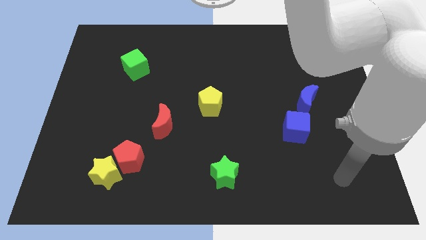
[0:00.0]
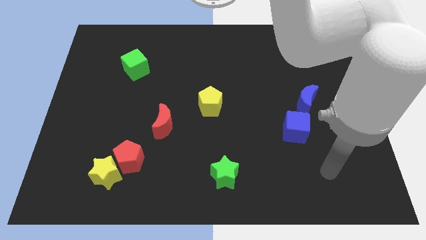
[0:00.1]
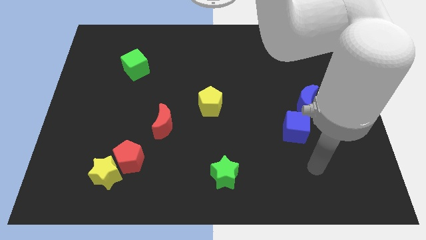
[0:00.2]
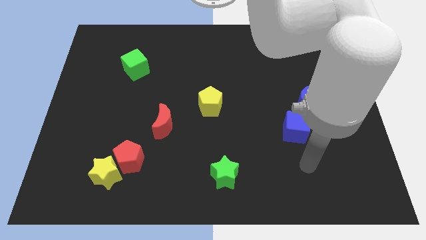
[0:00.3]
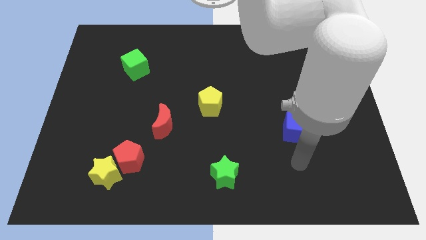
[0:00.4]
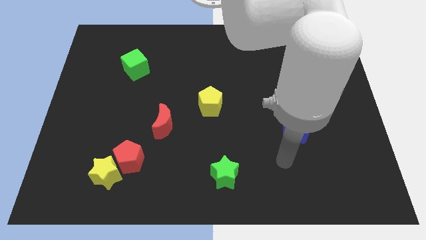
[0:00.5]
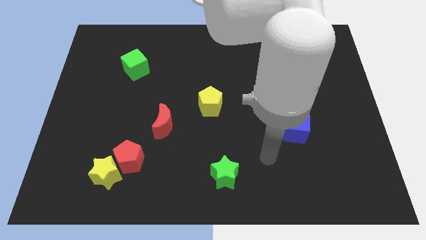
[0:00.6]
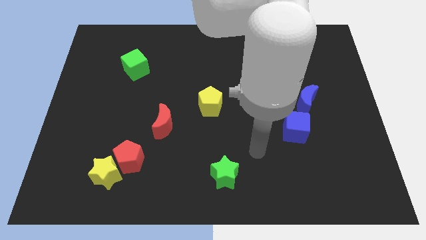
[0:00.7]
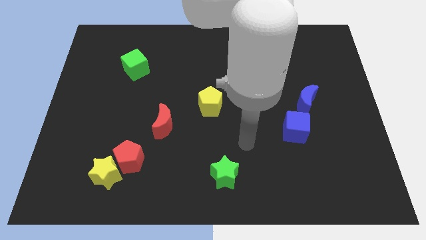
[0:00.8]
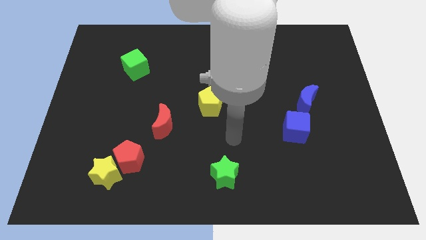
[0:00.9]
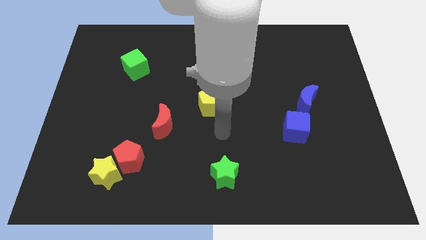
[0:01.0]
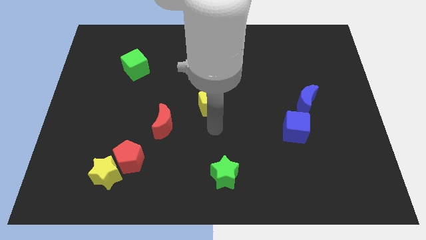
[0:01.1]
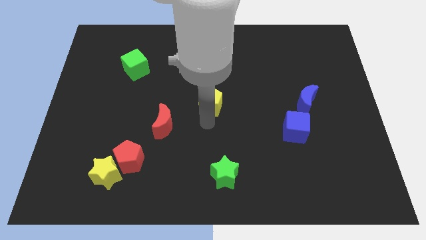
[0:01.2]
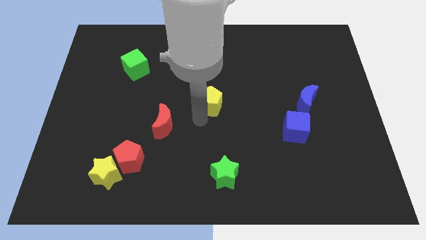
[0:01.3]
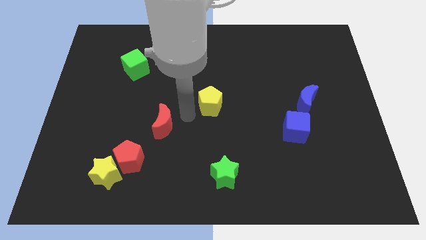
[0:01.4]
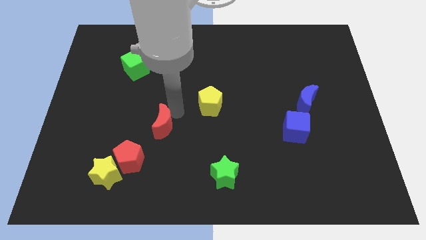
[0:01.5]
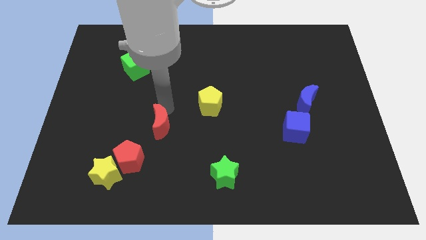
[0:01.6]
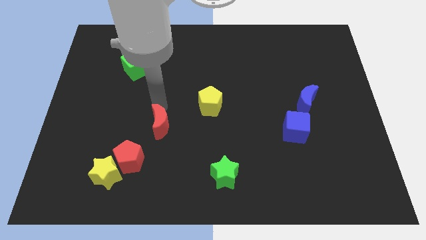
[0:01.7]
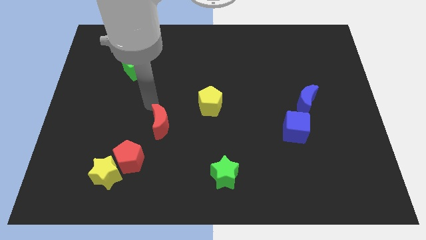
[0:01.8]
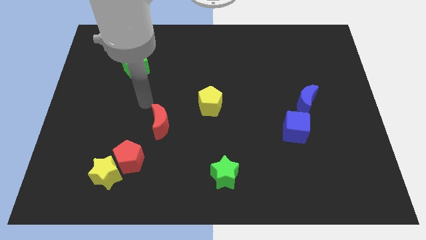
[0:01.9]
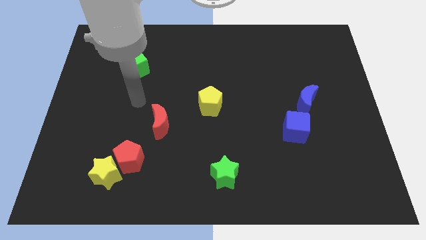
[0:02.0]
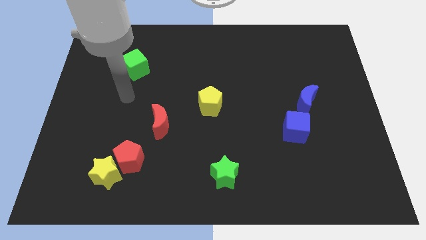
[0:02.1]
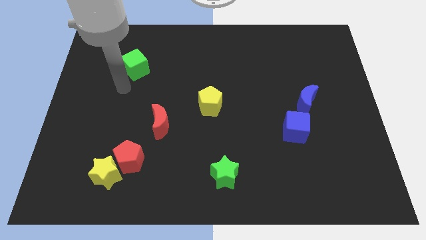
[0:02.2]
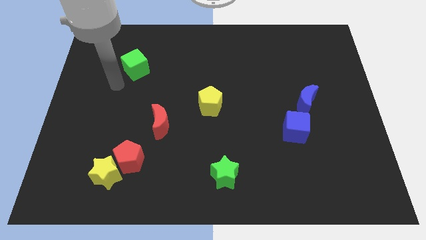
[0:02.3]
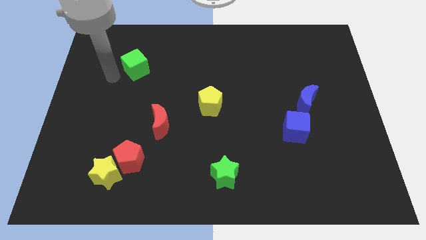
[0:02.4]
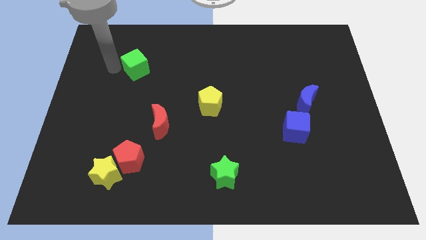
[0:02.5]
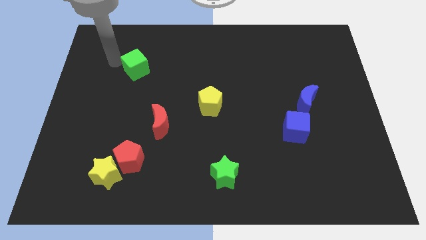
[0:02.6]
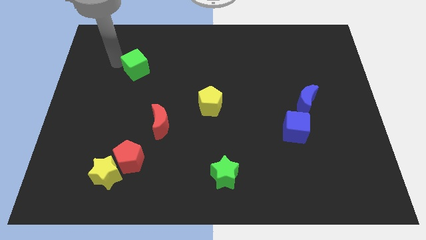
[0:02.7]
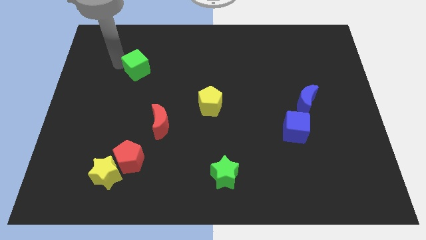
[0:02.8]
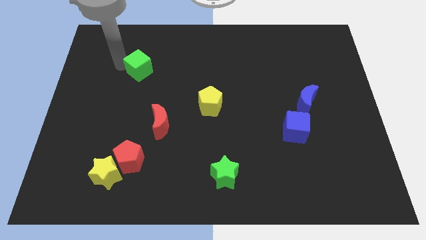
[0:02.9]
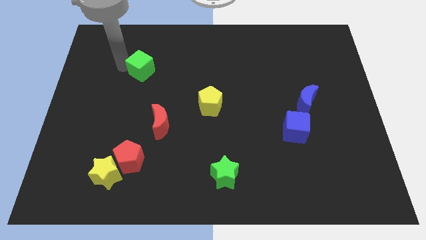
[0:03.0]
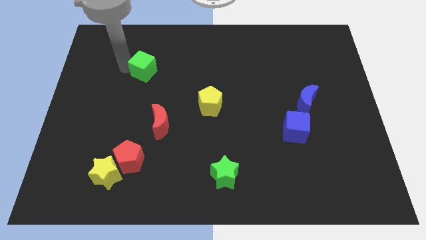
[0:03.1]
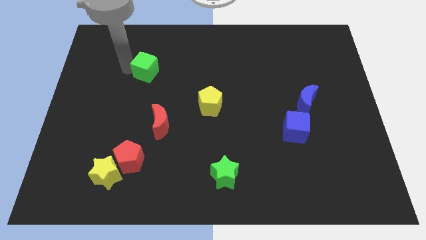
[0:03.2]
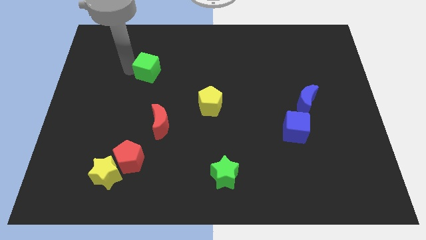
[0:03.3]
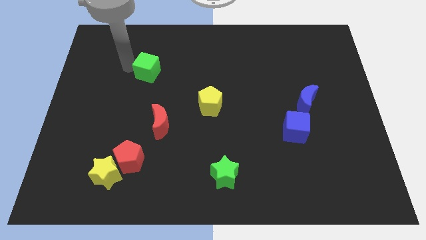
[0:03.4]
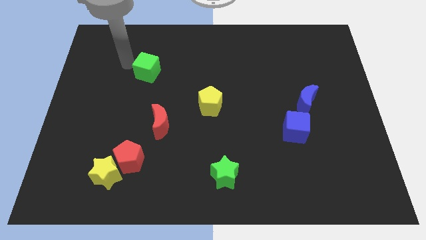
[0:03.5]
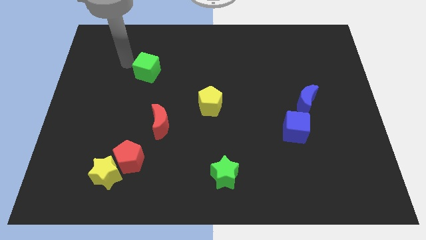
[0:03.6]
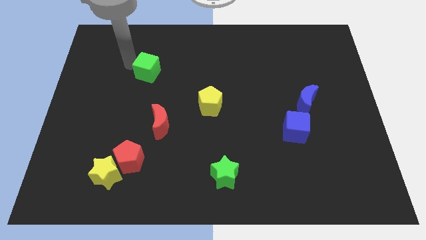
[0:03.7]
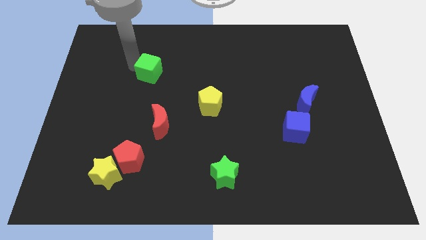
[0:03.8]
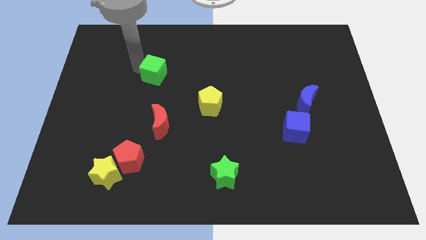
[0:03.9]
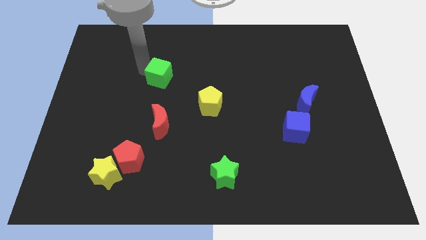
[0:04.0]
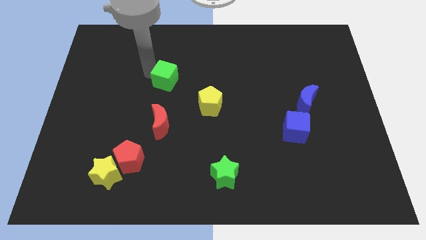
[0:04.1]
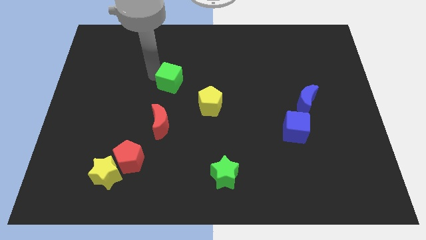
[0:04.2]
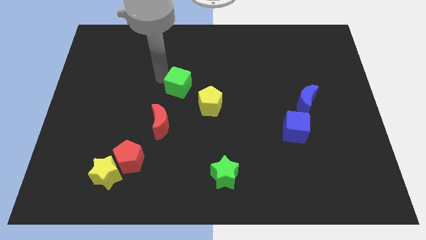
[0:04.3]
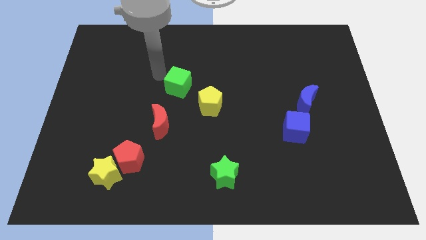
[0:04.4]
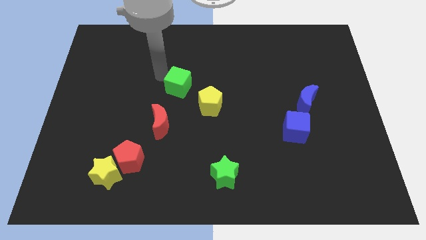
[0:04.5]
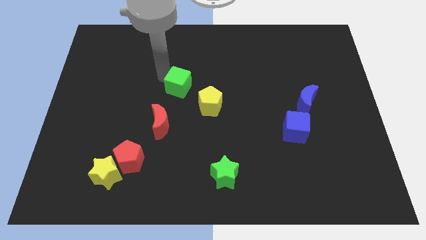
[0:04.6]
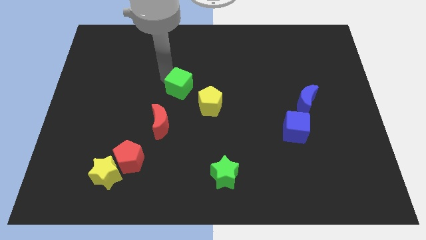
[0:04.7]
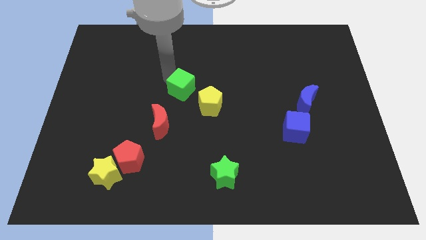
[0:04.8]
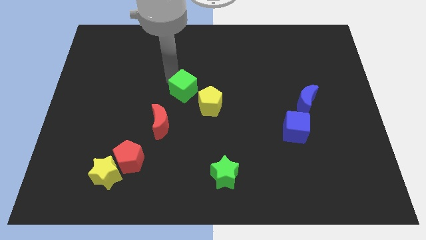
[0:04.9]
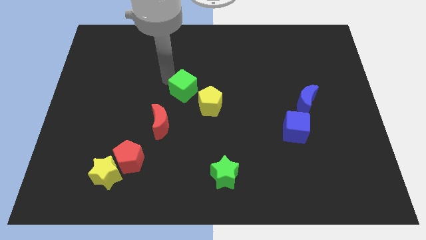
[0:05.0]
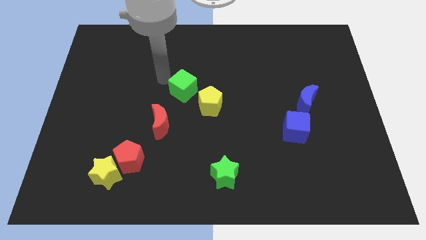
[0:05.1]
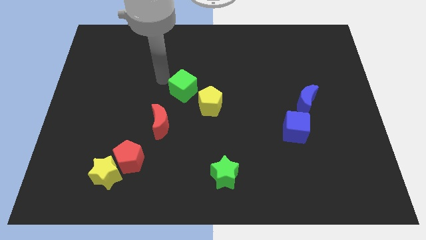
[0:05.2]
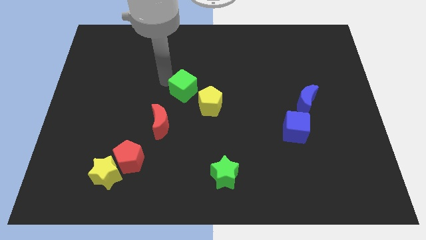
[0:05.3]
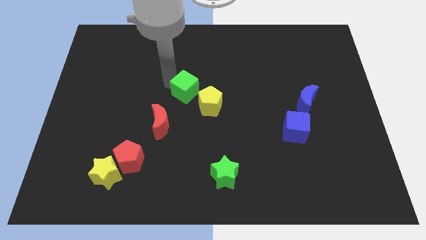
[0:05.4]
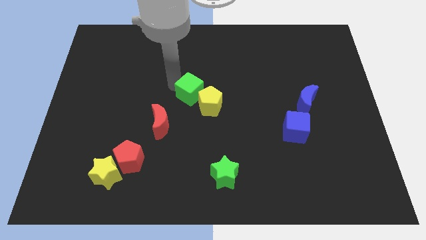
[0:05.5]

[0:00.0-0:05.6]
put the green cube to the yellow pentagon

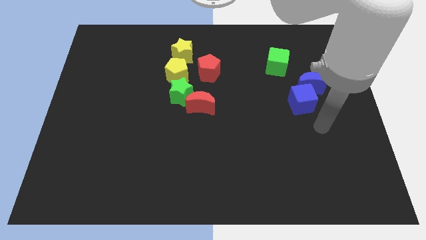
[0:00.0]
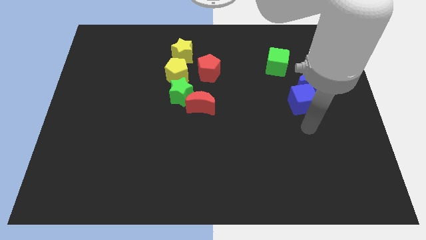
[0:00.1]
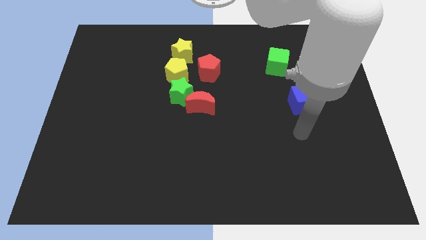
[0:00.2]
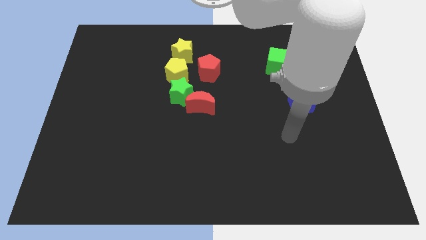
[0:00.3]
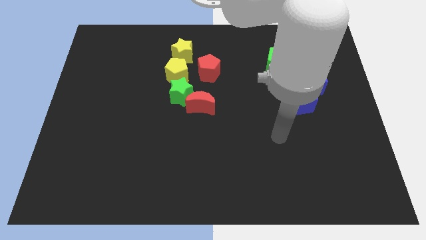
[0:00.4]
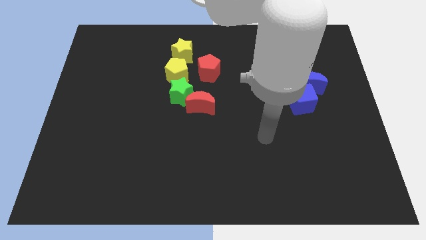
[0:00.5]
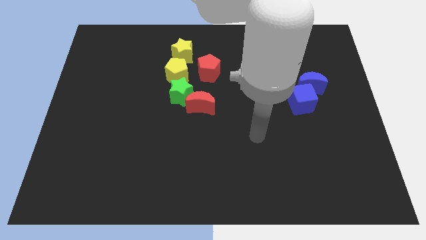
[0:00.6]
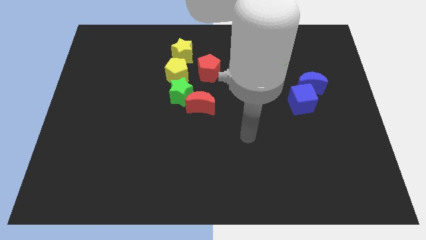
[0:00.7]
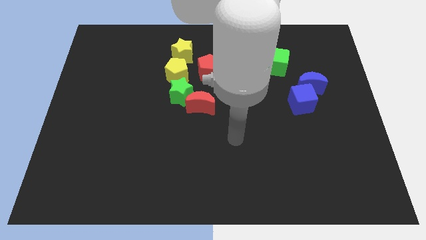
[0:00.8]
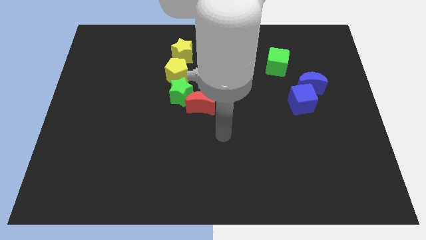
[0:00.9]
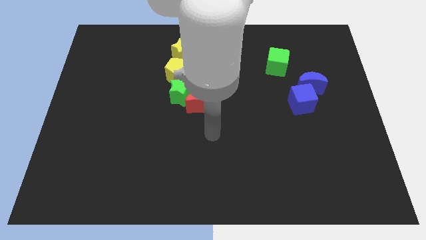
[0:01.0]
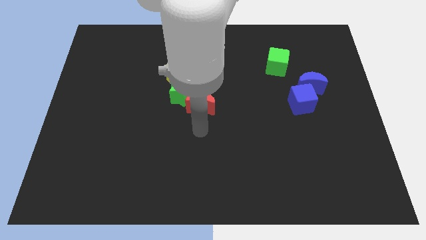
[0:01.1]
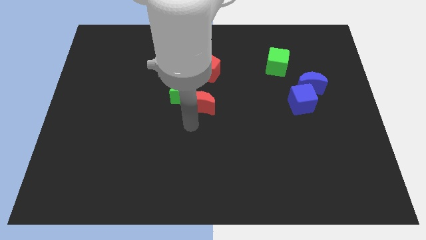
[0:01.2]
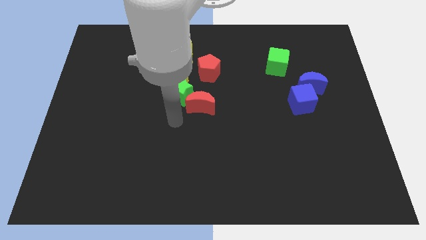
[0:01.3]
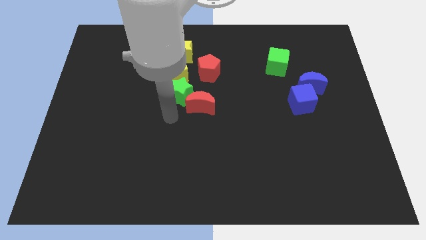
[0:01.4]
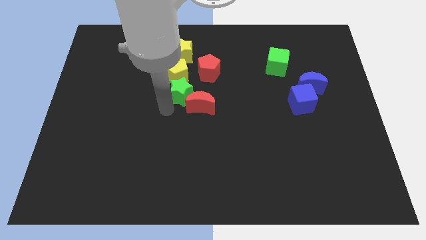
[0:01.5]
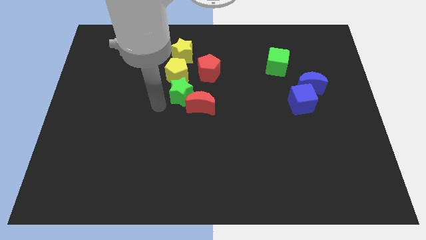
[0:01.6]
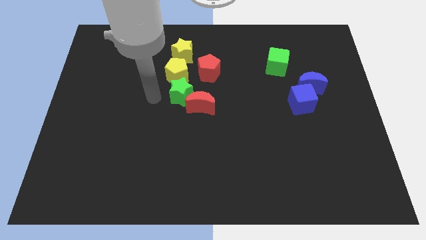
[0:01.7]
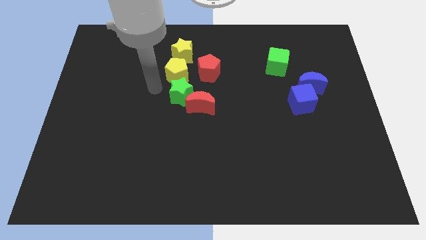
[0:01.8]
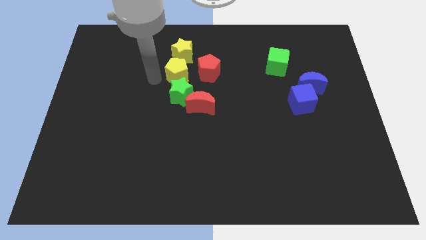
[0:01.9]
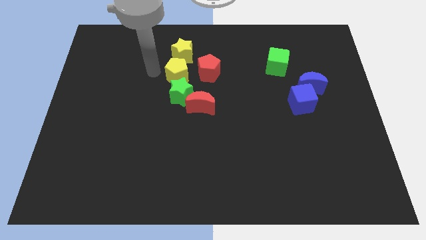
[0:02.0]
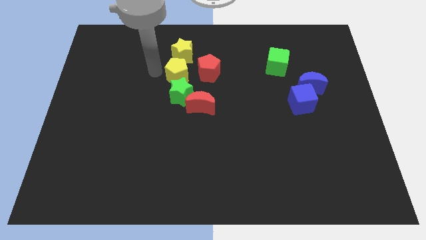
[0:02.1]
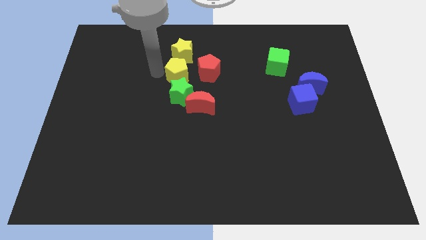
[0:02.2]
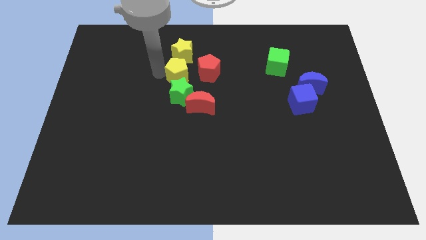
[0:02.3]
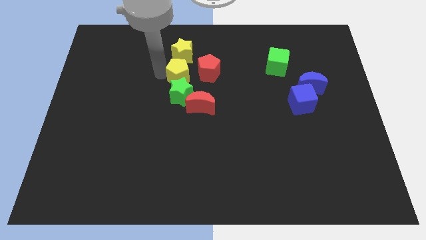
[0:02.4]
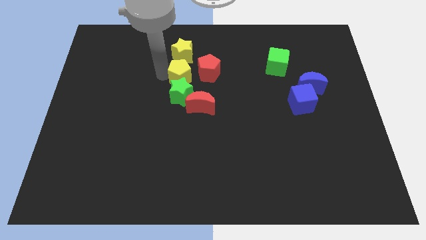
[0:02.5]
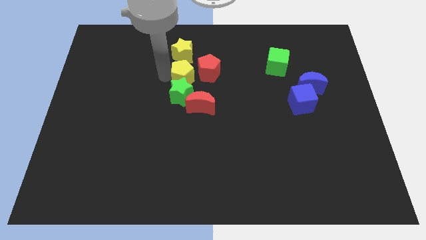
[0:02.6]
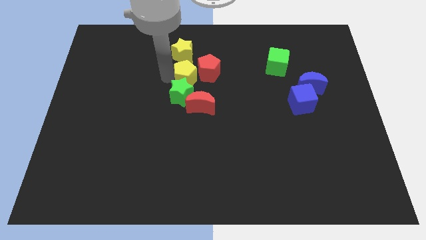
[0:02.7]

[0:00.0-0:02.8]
move the yellow pentagon towards the red pentagon
